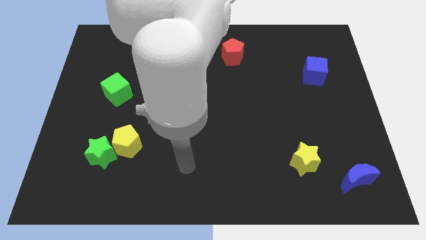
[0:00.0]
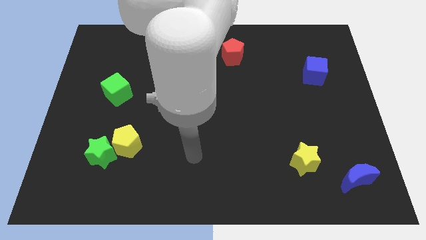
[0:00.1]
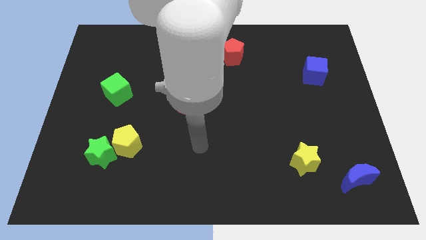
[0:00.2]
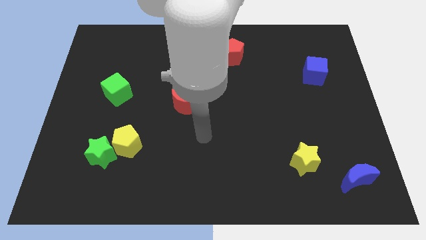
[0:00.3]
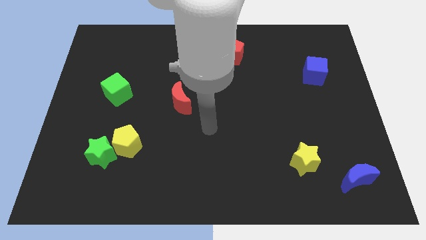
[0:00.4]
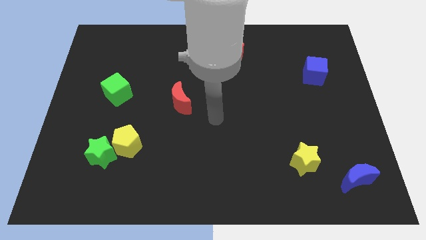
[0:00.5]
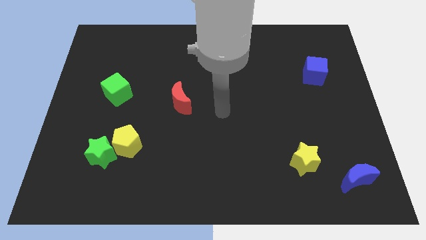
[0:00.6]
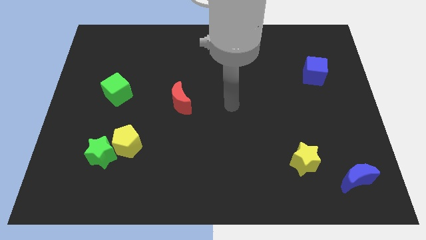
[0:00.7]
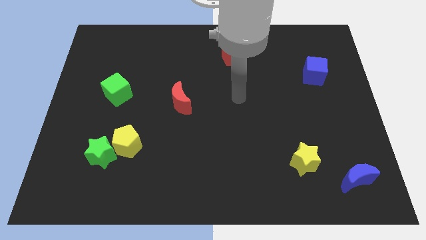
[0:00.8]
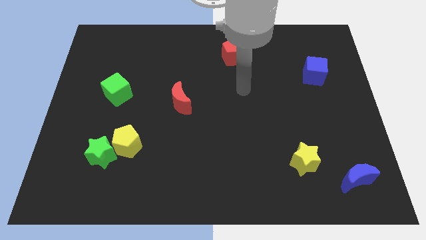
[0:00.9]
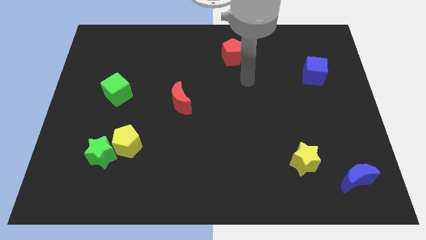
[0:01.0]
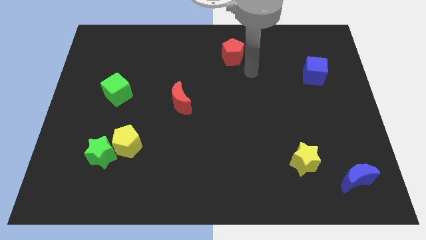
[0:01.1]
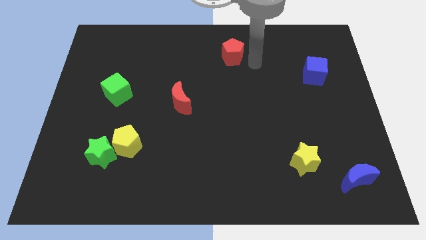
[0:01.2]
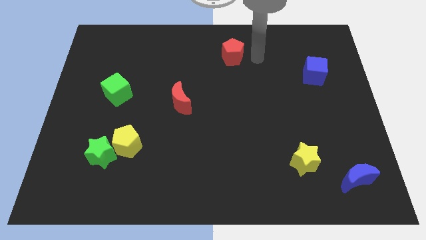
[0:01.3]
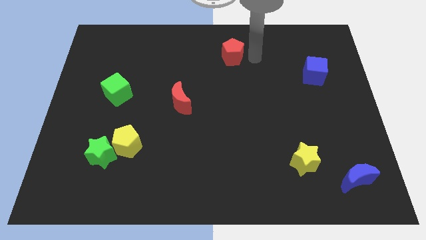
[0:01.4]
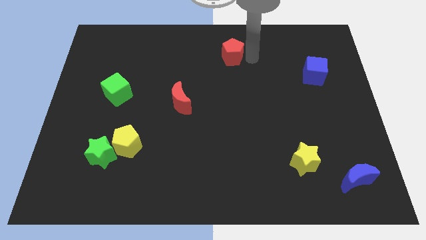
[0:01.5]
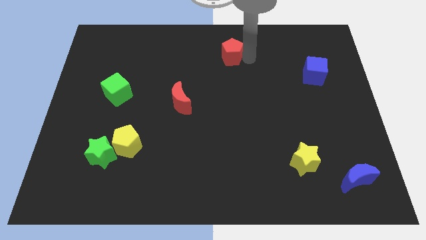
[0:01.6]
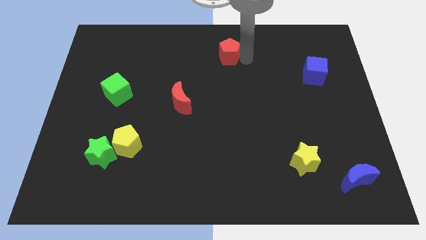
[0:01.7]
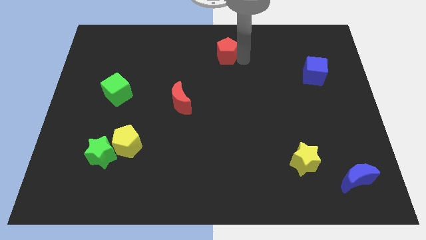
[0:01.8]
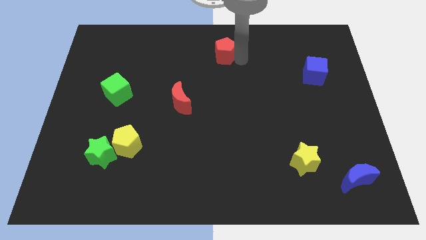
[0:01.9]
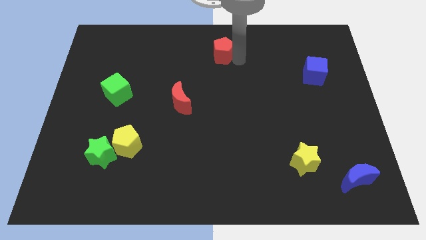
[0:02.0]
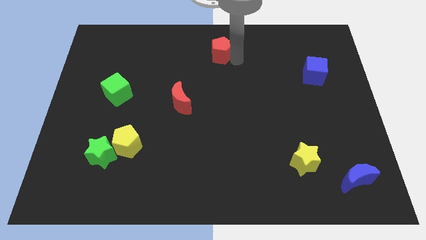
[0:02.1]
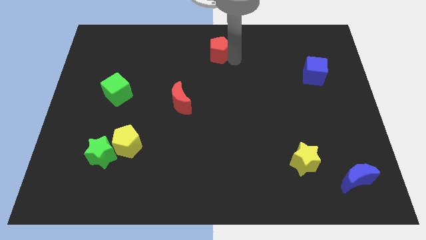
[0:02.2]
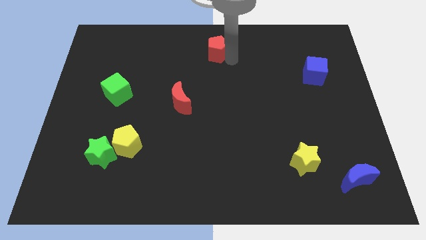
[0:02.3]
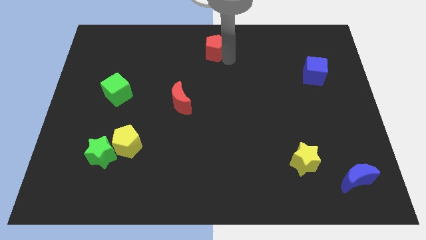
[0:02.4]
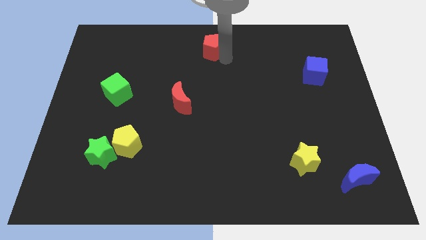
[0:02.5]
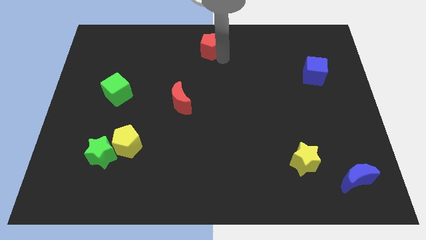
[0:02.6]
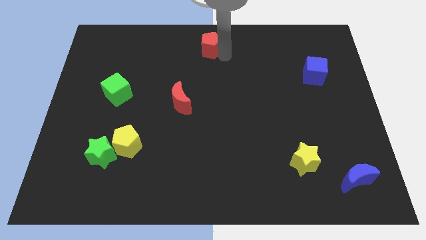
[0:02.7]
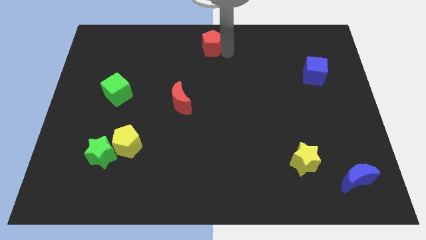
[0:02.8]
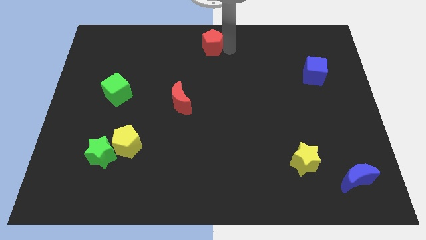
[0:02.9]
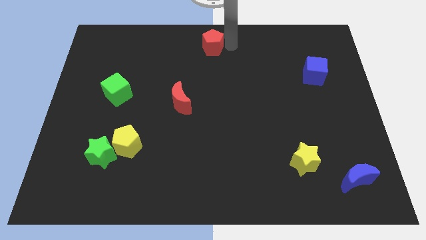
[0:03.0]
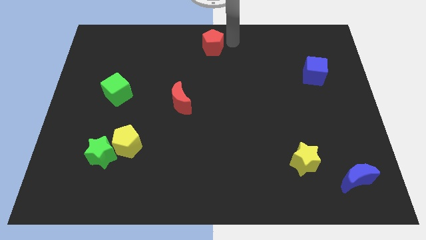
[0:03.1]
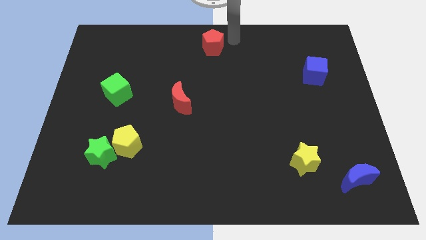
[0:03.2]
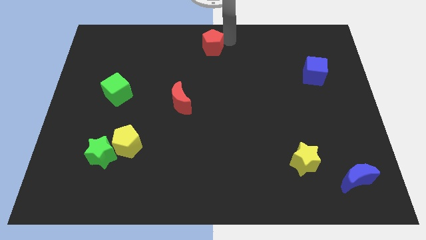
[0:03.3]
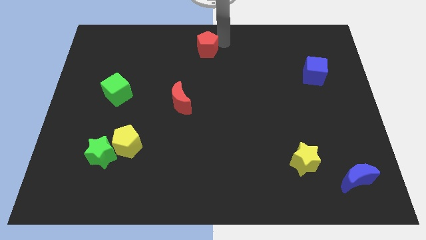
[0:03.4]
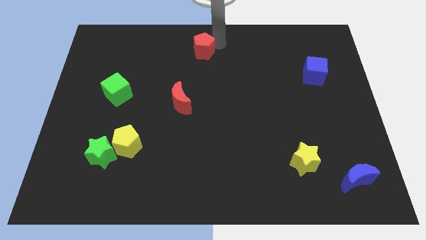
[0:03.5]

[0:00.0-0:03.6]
slightly move the red pentagon left

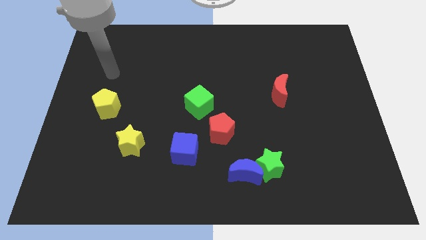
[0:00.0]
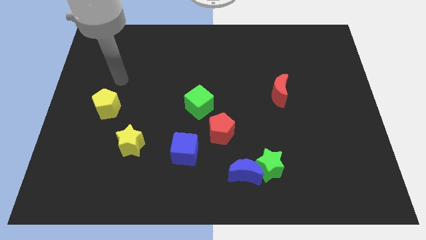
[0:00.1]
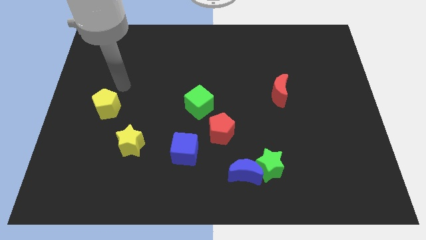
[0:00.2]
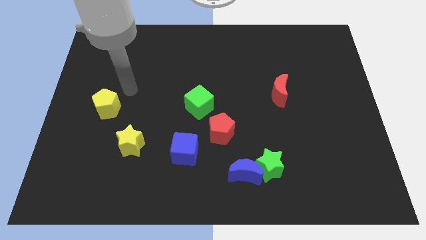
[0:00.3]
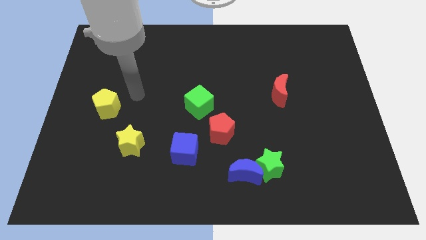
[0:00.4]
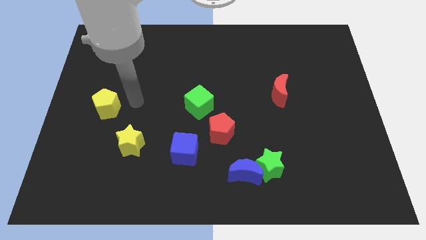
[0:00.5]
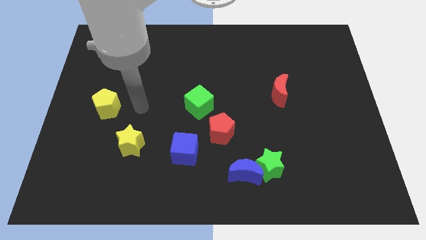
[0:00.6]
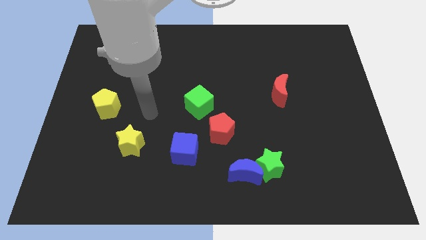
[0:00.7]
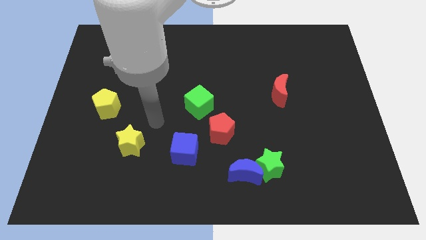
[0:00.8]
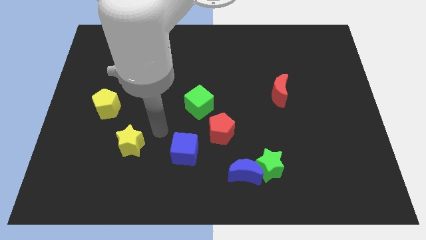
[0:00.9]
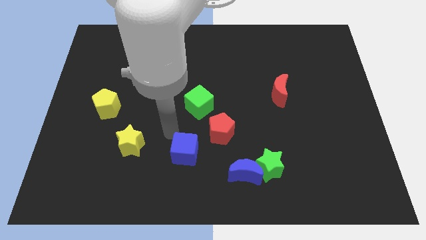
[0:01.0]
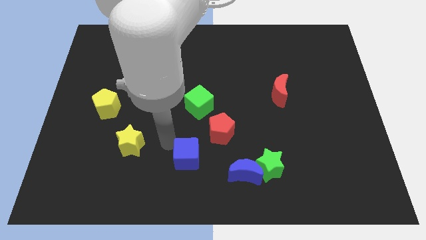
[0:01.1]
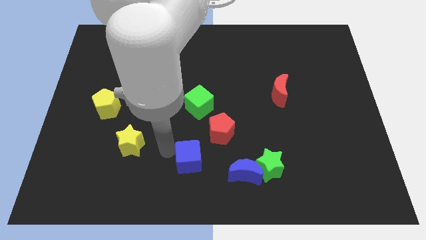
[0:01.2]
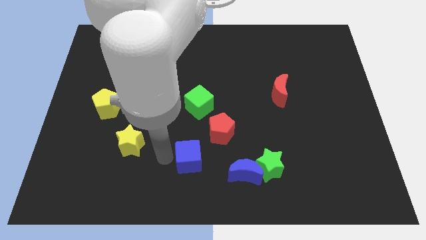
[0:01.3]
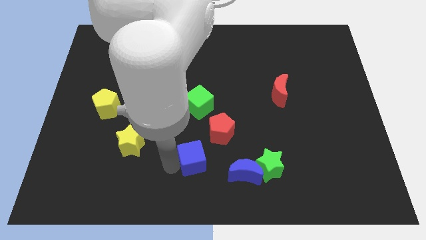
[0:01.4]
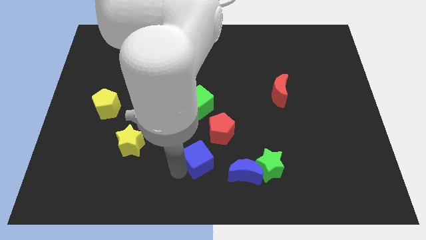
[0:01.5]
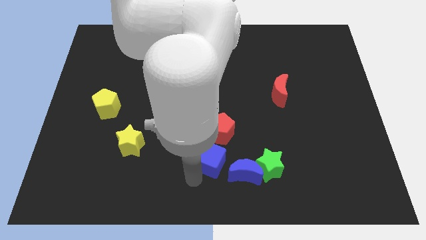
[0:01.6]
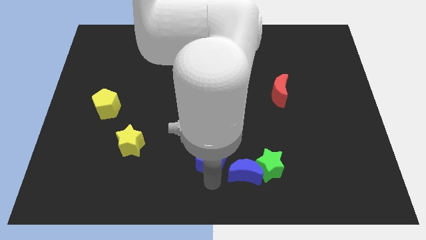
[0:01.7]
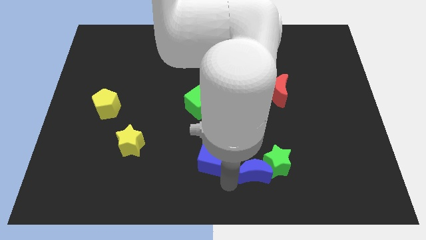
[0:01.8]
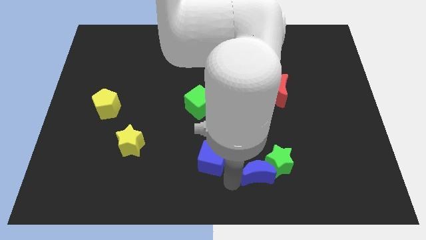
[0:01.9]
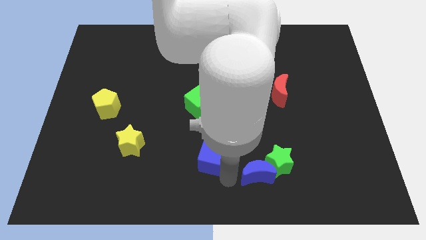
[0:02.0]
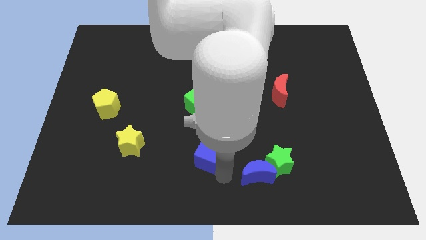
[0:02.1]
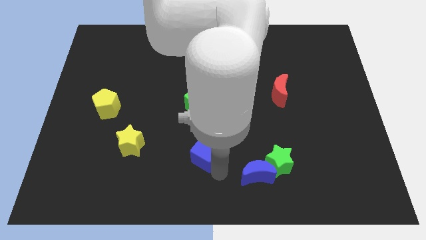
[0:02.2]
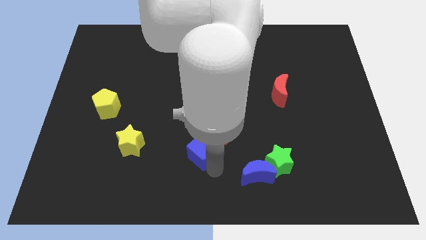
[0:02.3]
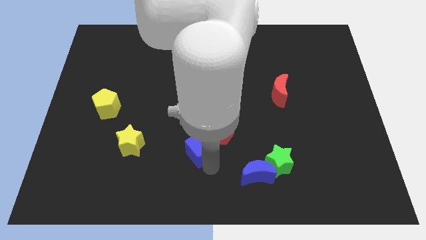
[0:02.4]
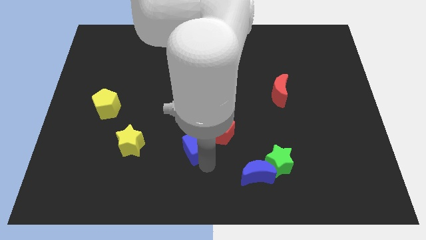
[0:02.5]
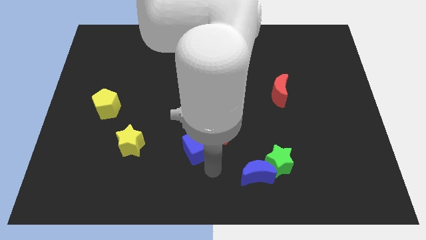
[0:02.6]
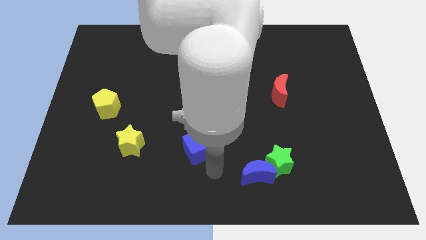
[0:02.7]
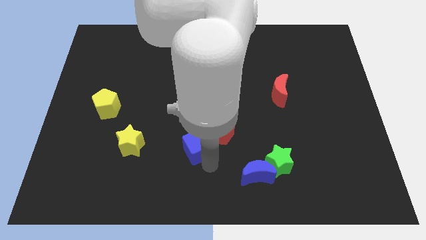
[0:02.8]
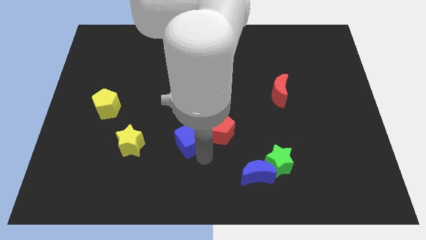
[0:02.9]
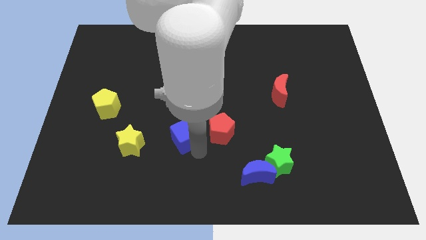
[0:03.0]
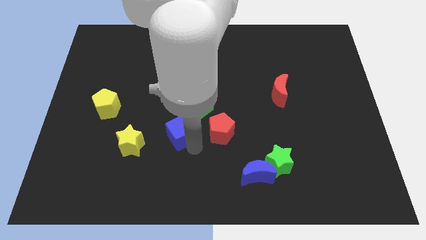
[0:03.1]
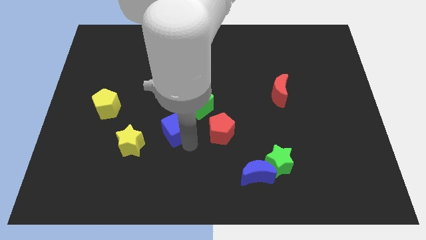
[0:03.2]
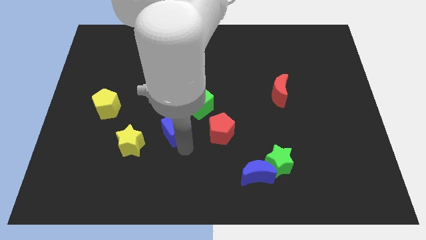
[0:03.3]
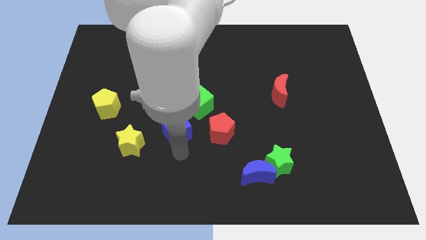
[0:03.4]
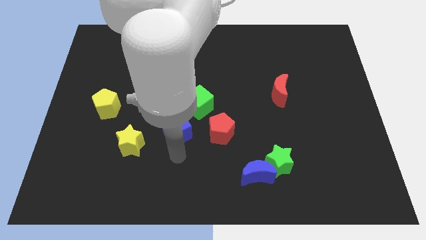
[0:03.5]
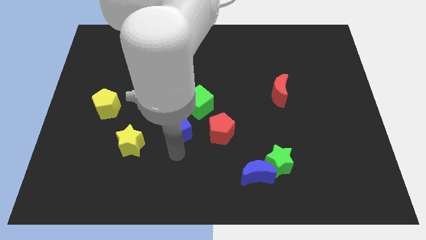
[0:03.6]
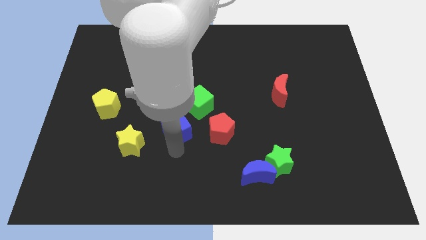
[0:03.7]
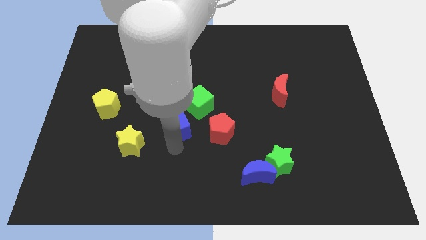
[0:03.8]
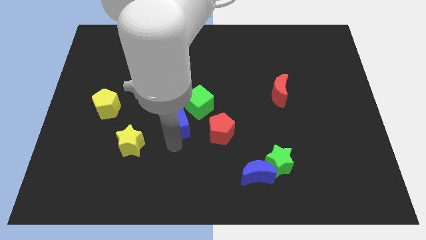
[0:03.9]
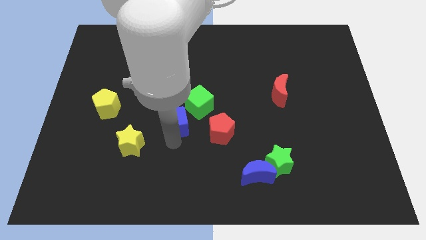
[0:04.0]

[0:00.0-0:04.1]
push the blue cube up slightly

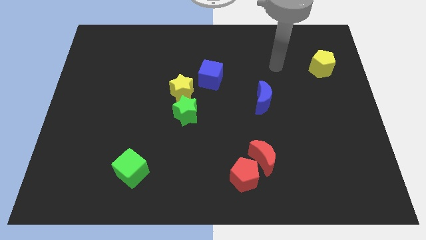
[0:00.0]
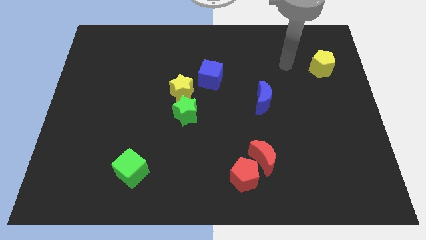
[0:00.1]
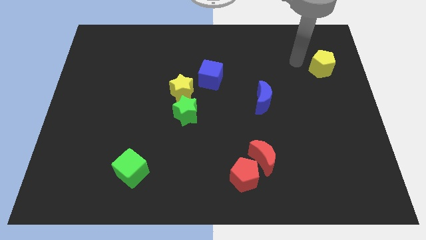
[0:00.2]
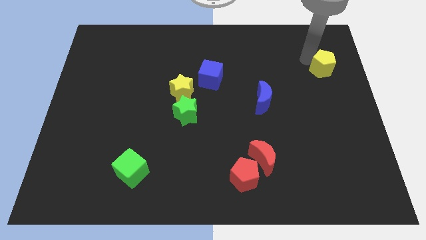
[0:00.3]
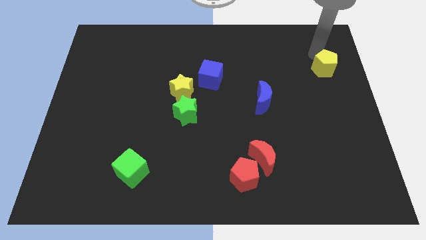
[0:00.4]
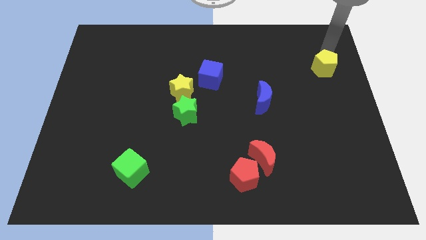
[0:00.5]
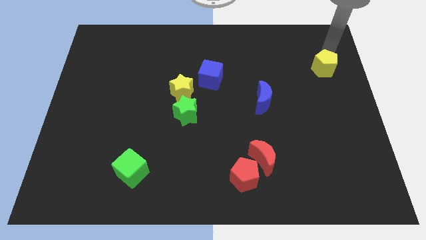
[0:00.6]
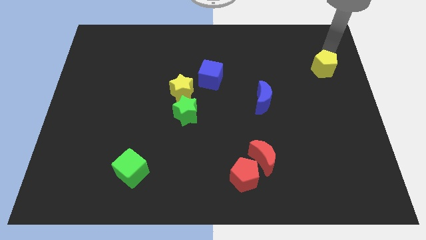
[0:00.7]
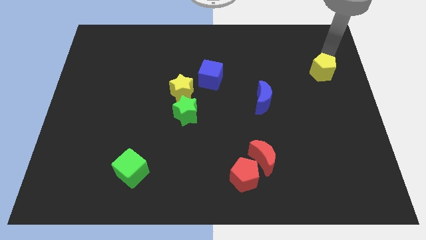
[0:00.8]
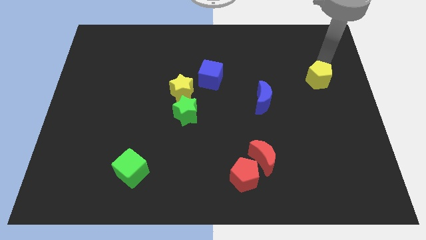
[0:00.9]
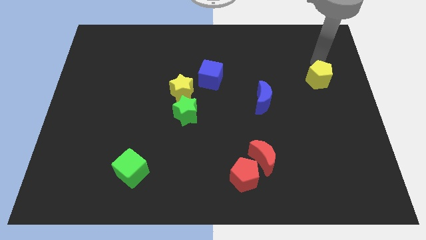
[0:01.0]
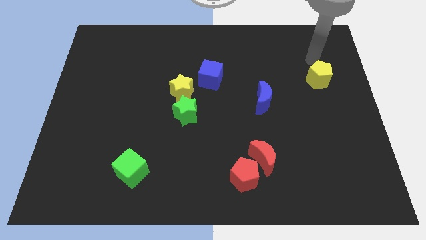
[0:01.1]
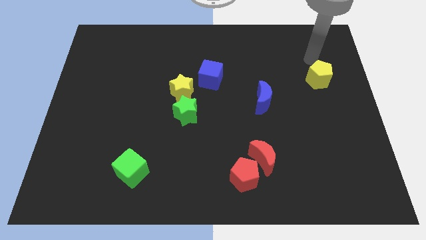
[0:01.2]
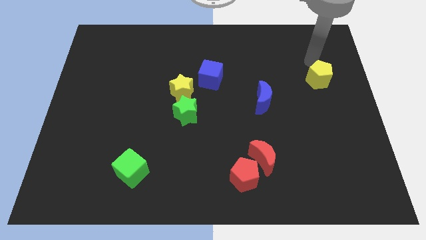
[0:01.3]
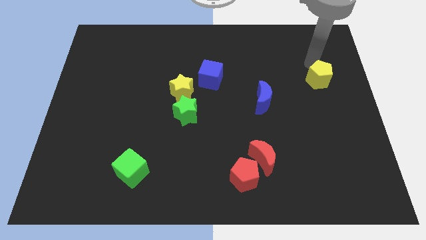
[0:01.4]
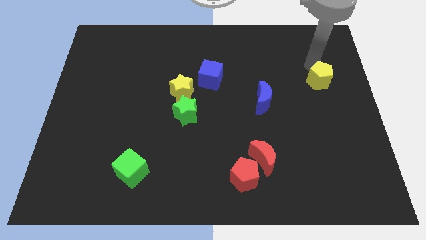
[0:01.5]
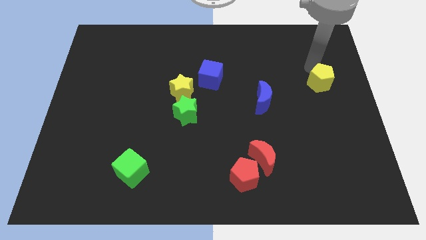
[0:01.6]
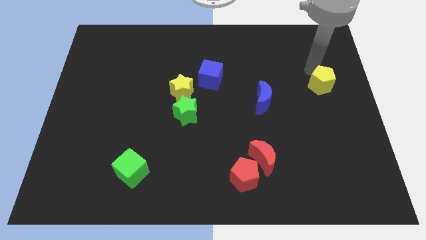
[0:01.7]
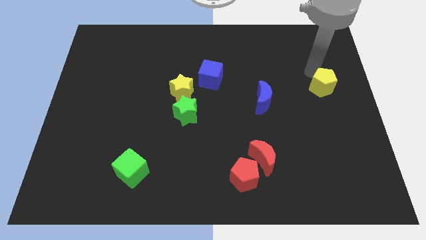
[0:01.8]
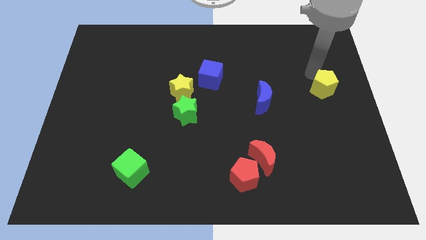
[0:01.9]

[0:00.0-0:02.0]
move the yellow pentagon slightly downwards
